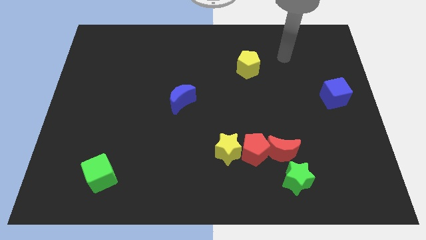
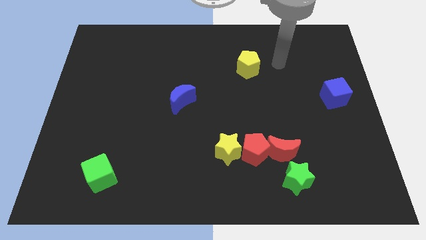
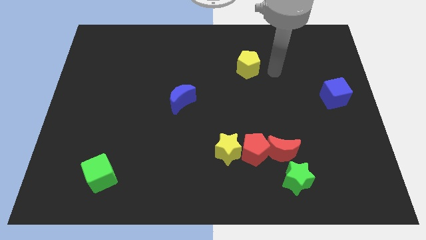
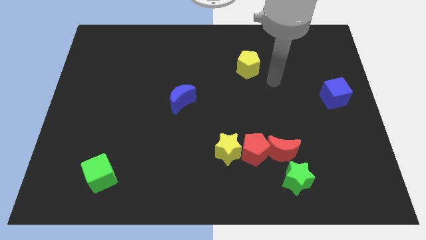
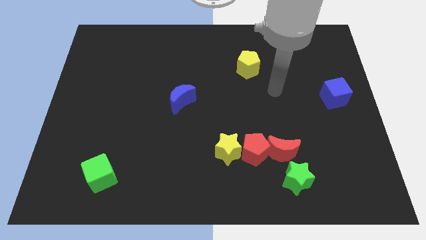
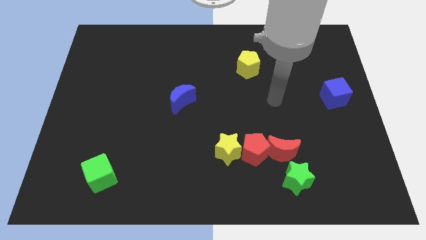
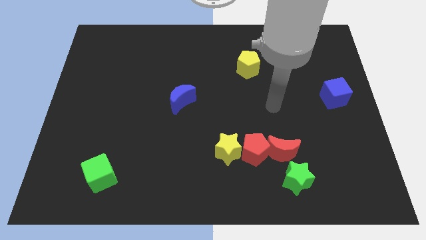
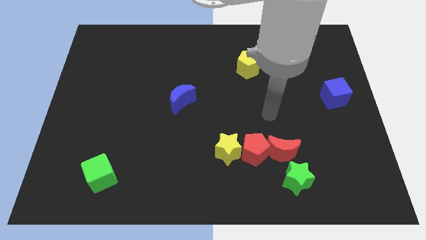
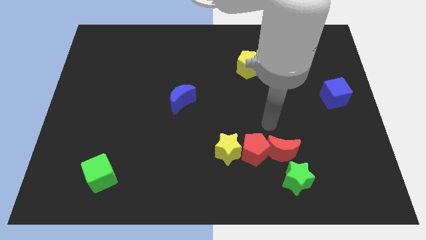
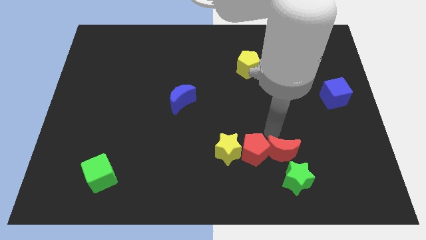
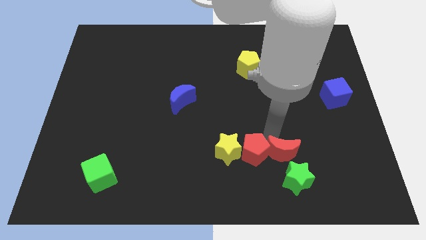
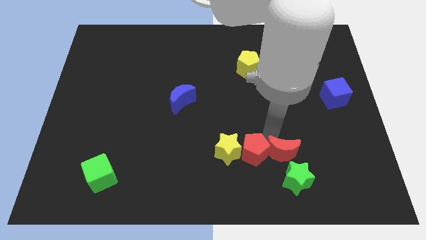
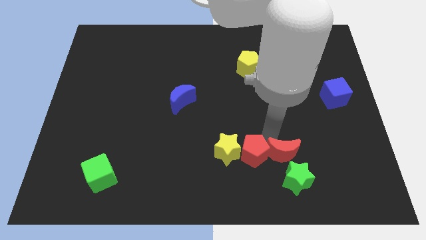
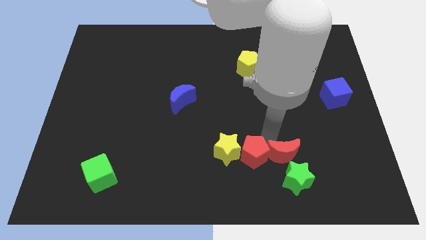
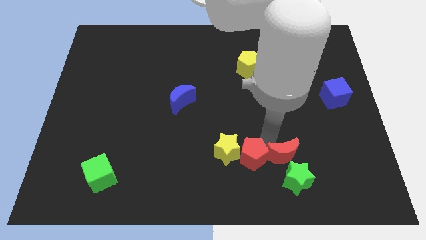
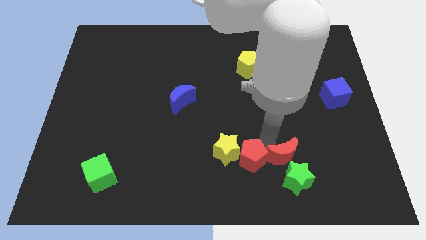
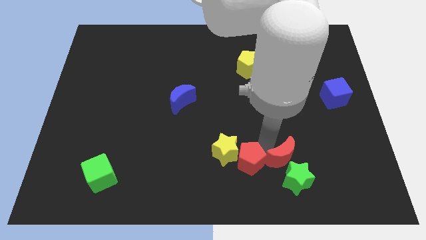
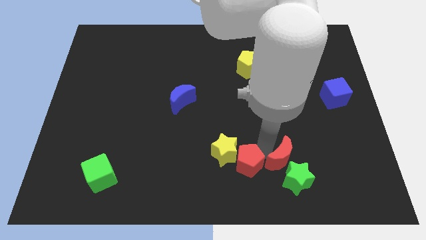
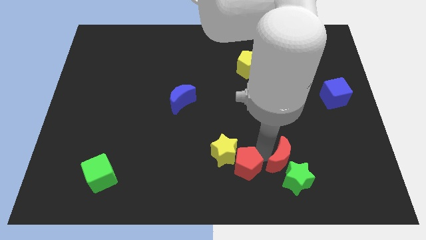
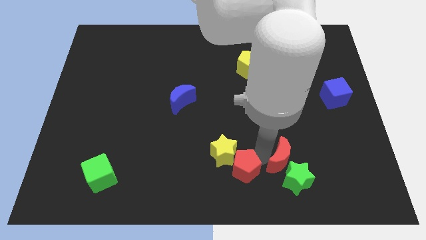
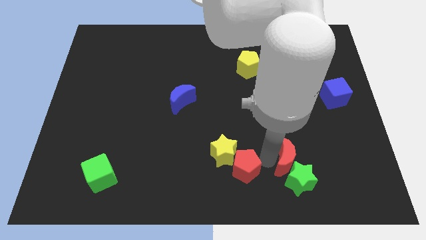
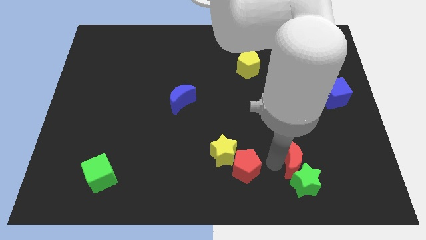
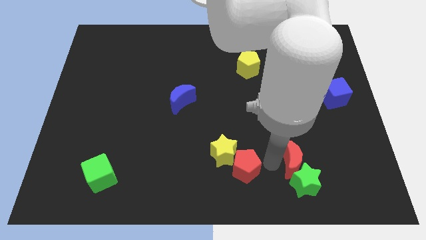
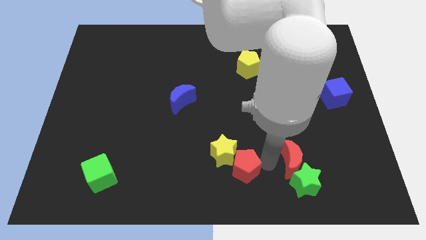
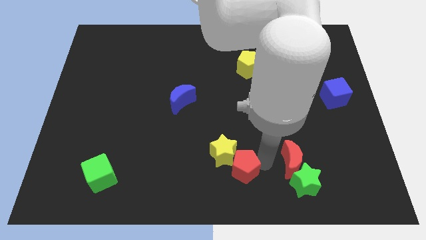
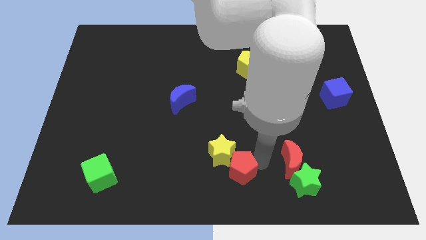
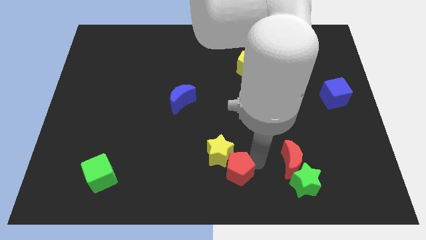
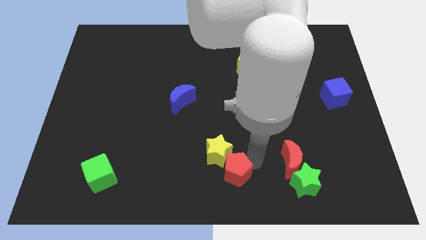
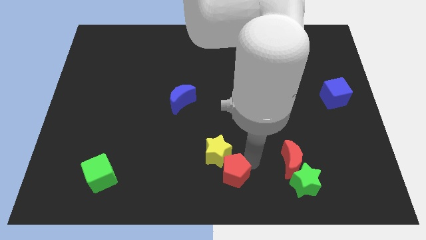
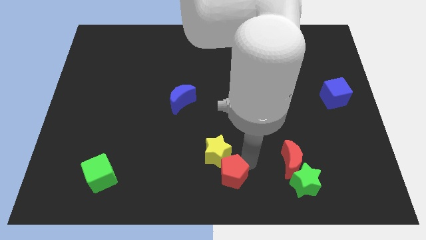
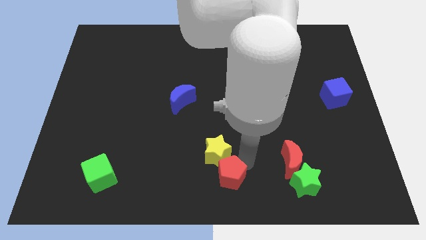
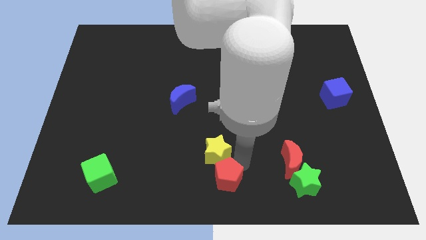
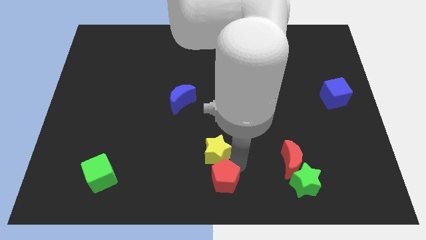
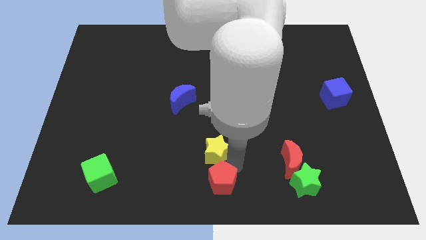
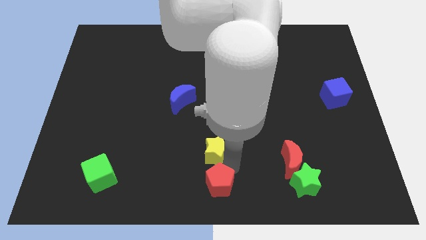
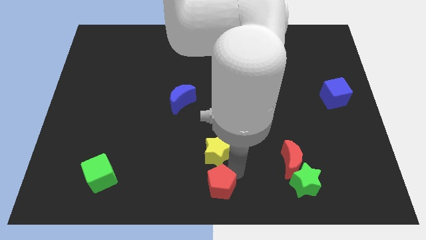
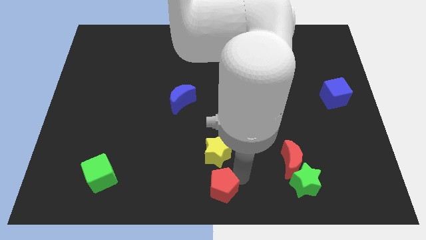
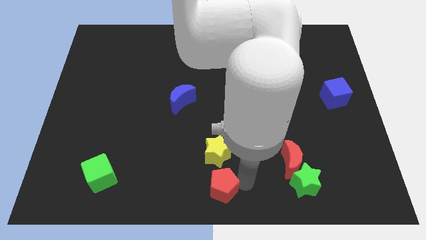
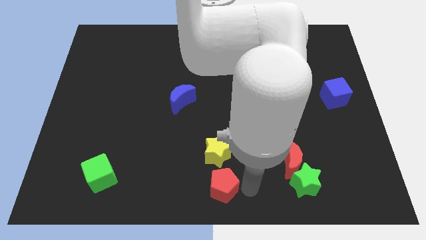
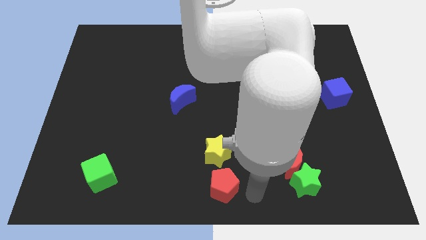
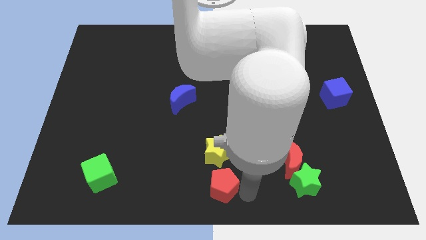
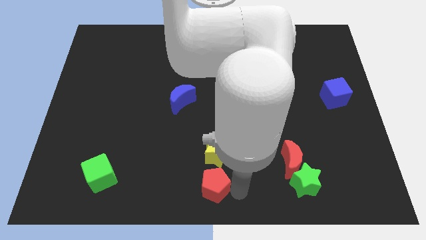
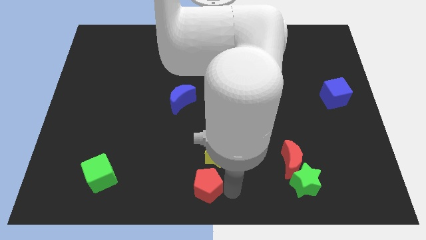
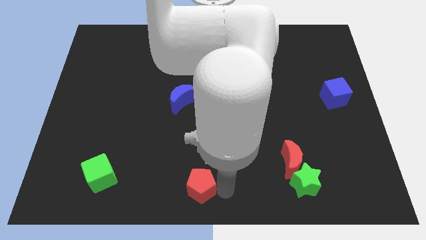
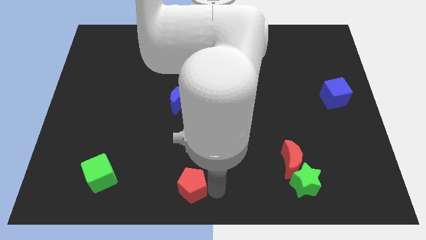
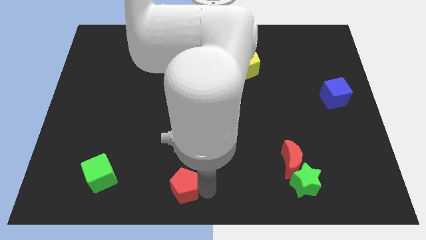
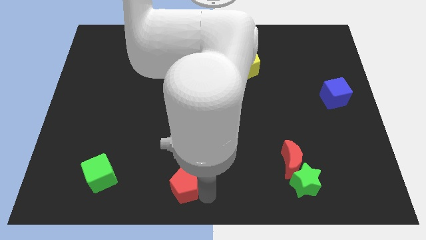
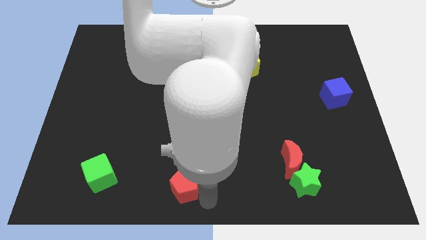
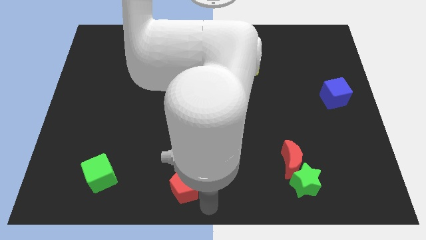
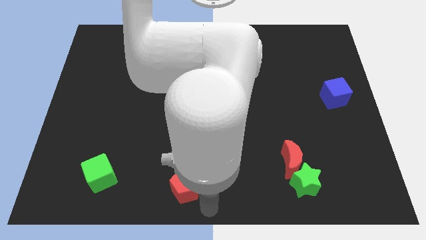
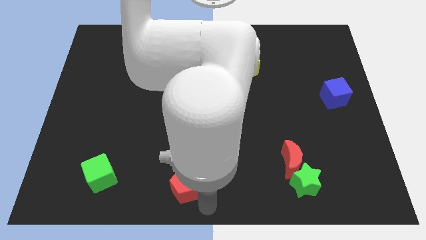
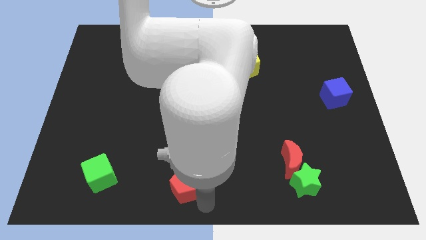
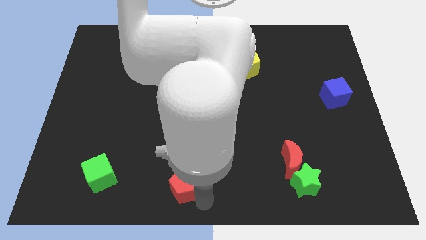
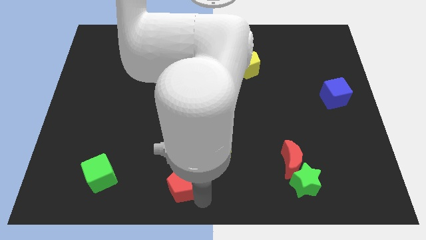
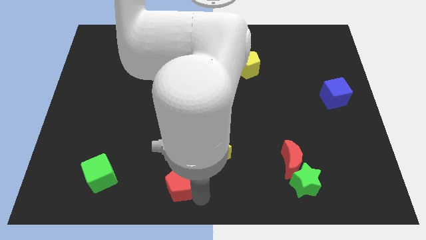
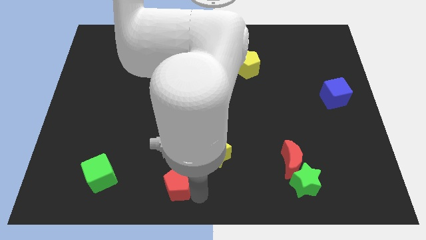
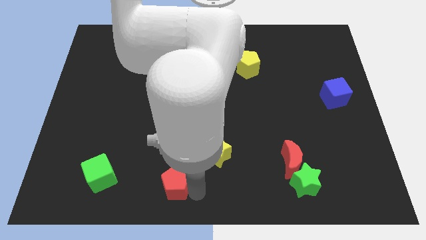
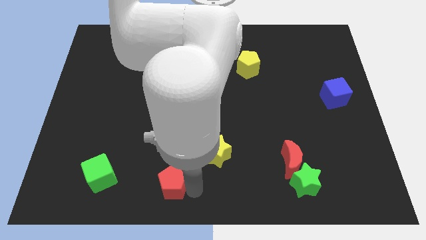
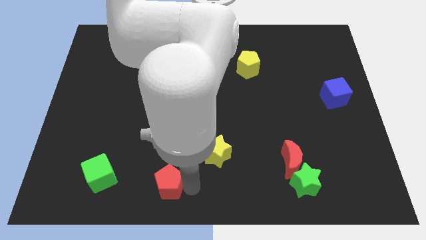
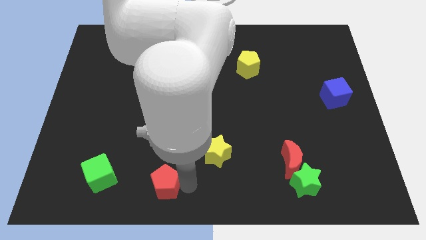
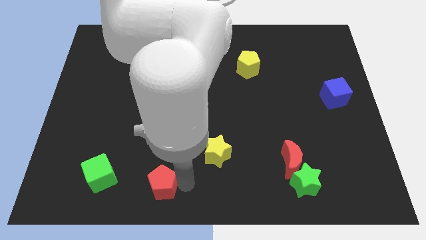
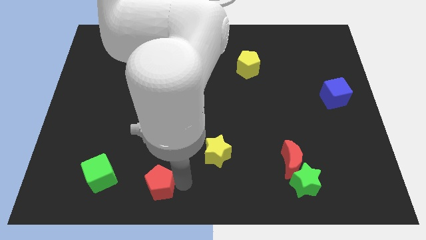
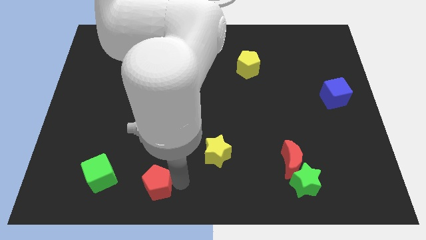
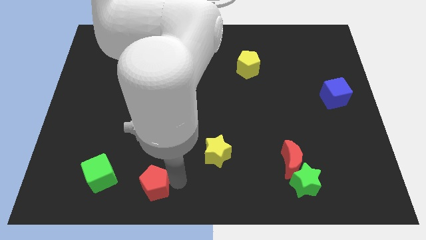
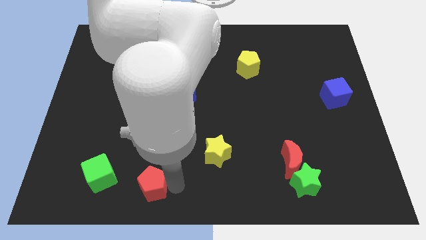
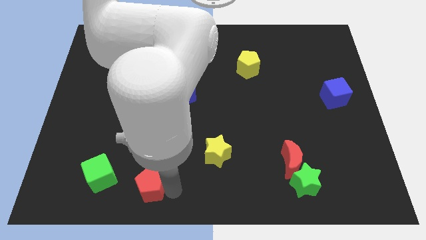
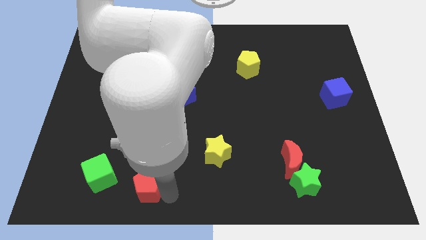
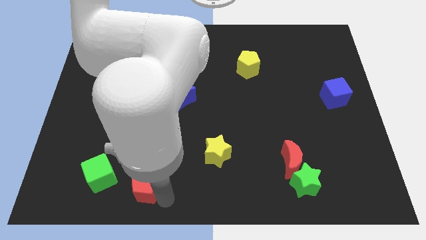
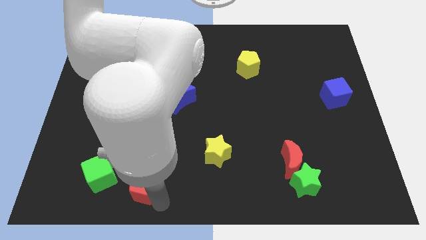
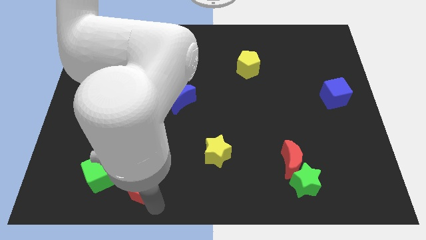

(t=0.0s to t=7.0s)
push the red pentagon to the left

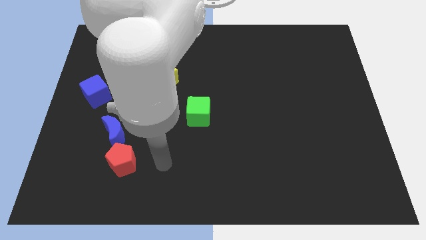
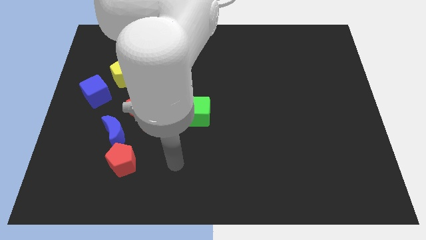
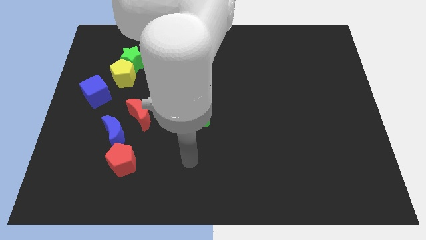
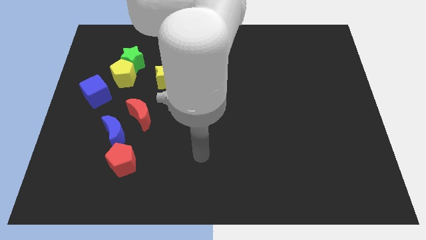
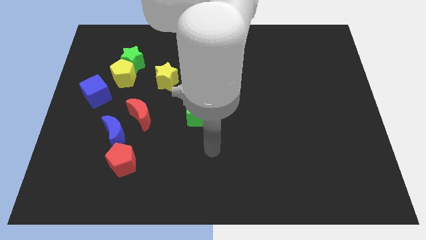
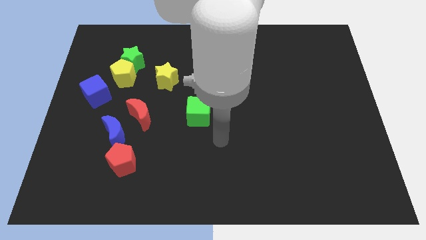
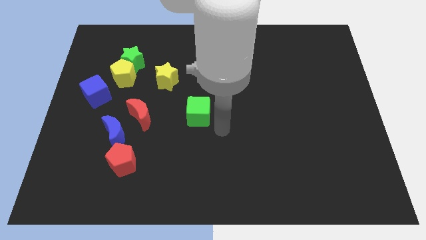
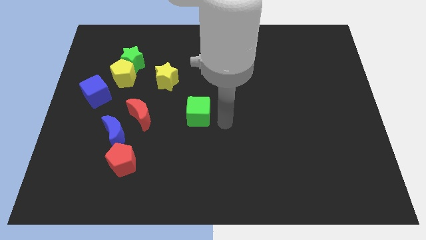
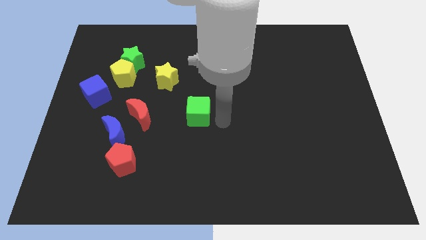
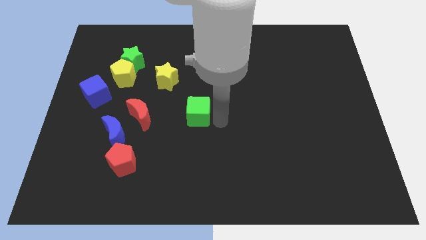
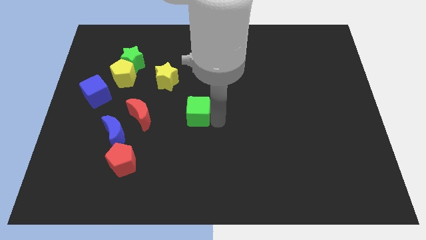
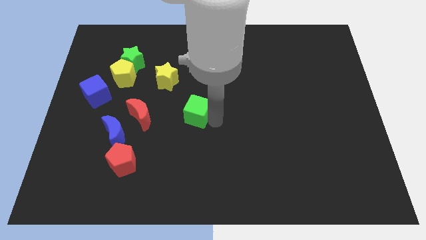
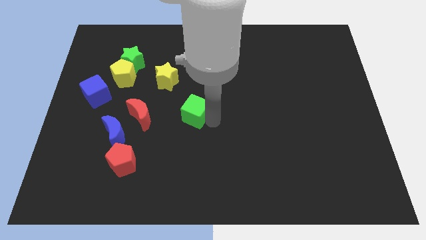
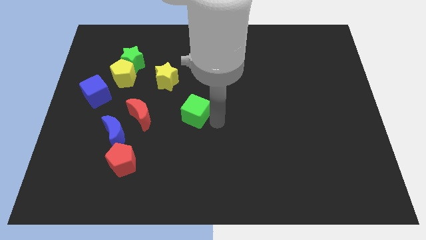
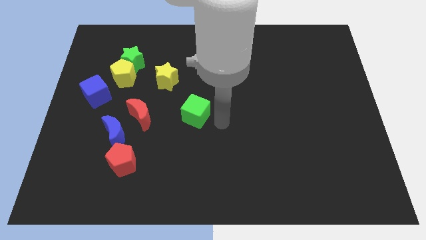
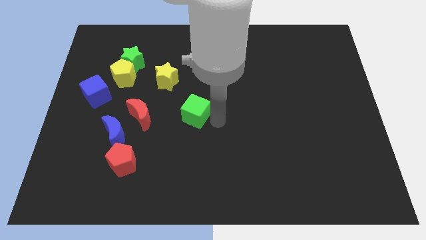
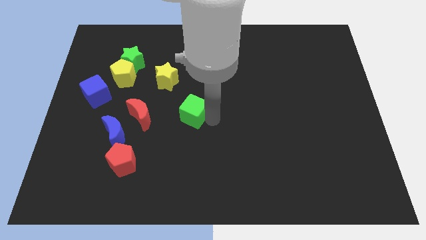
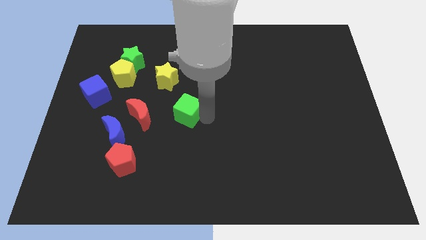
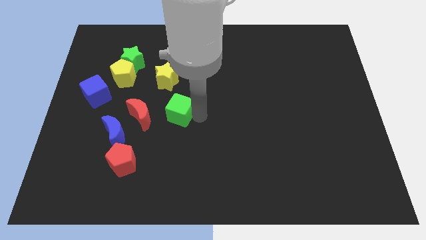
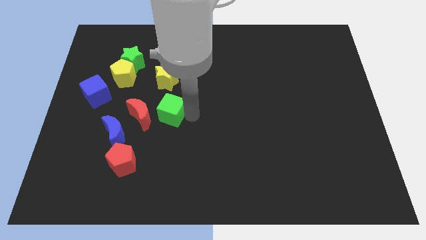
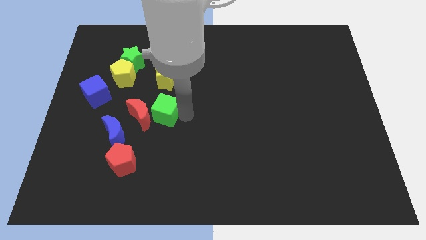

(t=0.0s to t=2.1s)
slightly slide the green cube left
